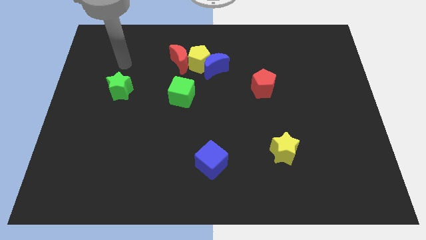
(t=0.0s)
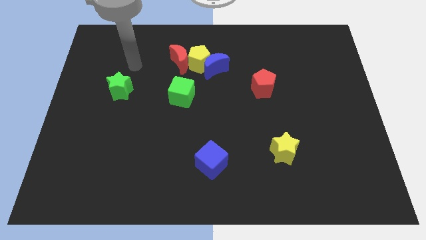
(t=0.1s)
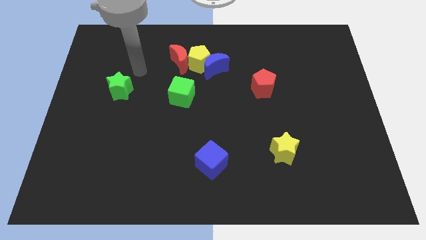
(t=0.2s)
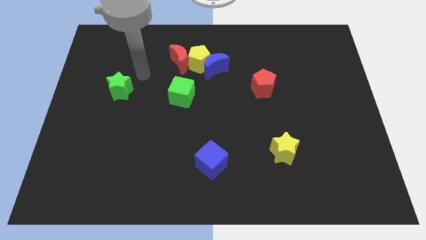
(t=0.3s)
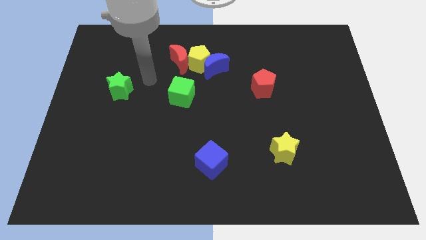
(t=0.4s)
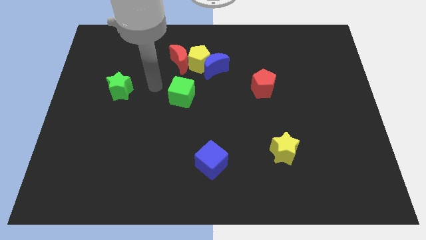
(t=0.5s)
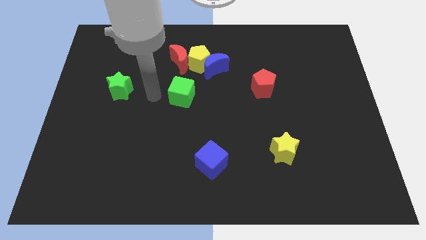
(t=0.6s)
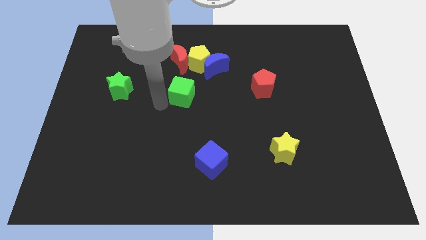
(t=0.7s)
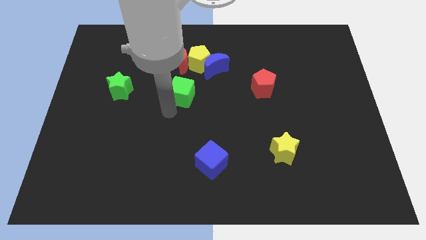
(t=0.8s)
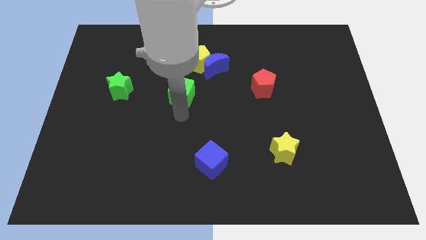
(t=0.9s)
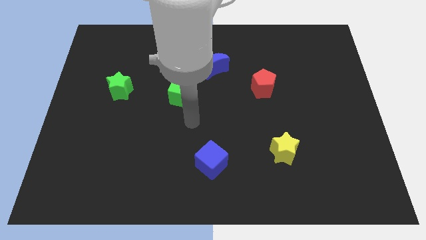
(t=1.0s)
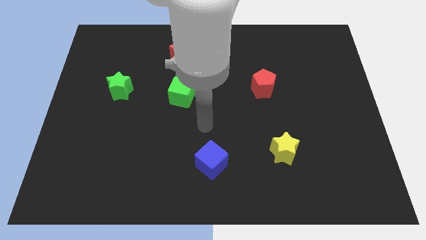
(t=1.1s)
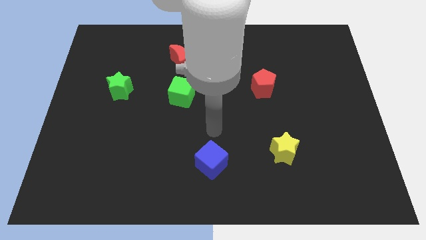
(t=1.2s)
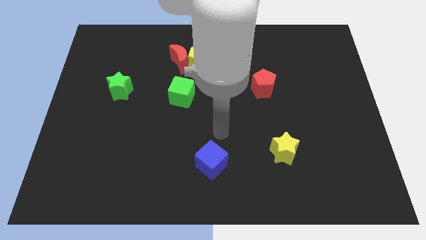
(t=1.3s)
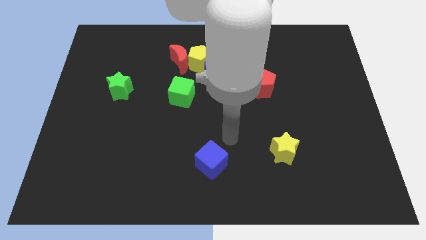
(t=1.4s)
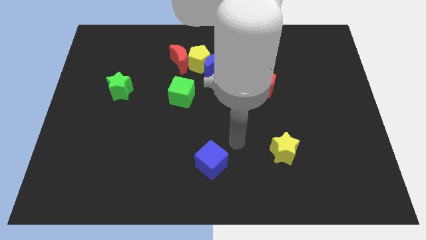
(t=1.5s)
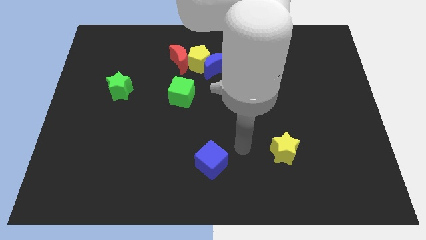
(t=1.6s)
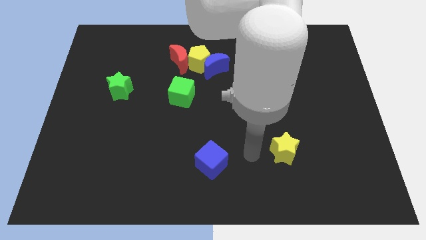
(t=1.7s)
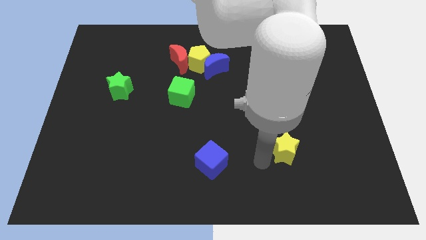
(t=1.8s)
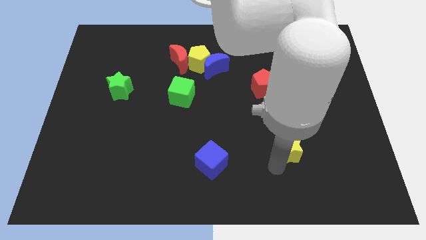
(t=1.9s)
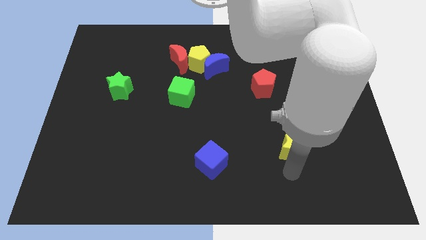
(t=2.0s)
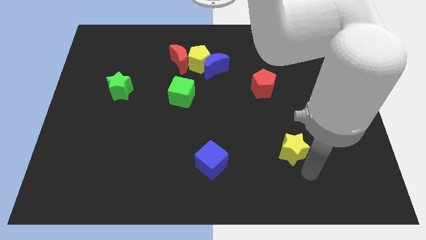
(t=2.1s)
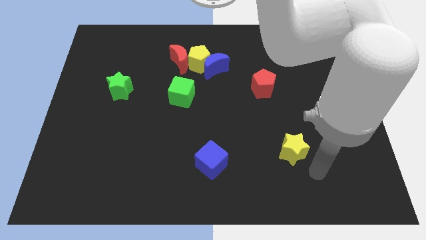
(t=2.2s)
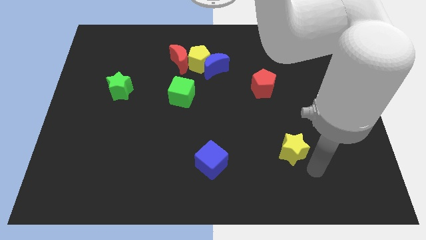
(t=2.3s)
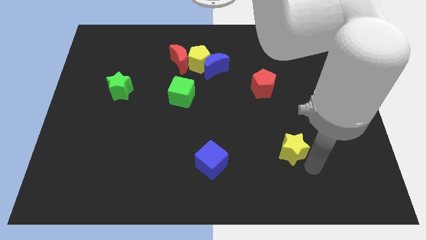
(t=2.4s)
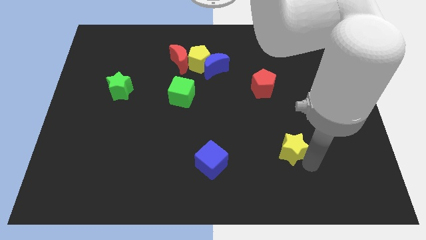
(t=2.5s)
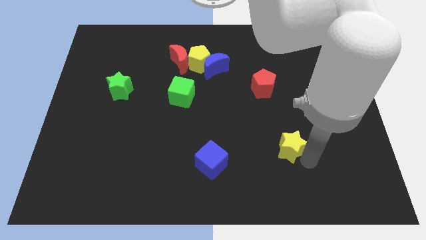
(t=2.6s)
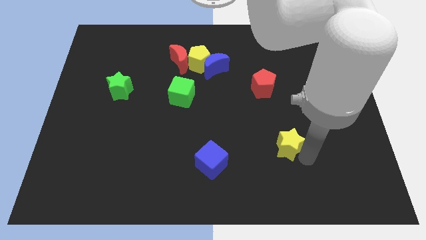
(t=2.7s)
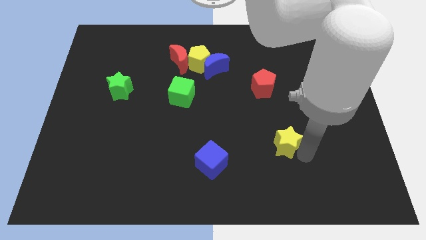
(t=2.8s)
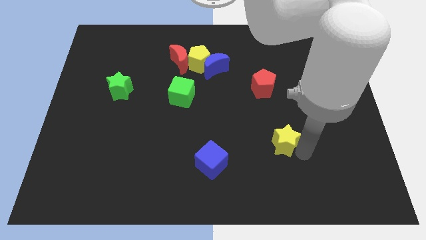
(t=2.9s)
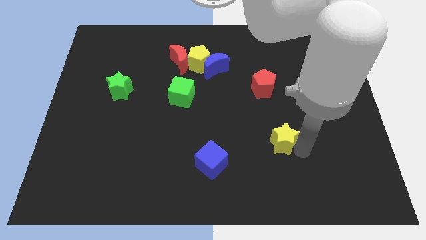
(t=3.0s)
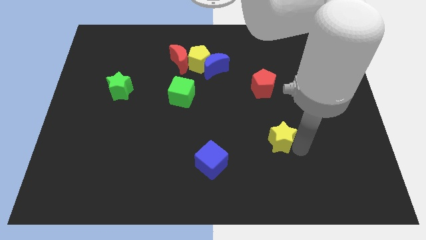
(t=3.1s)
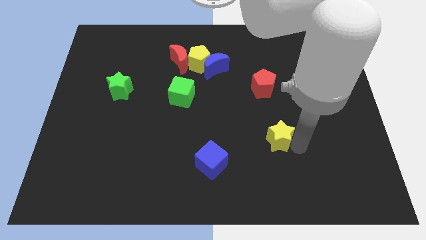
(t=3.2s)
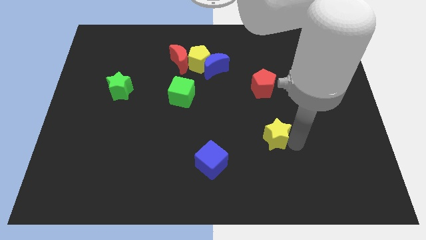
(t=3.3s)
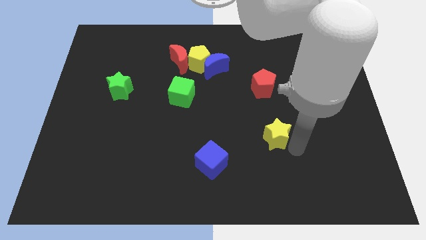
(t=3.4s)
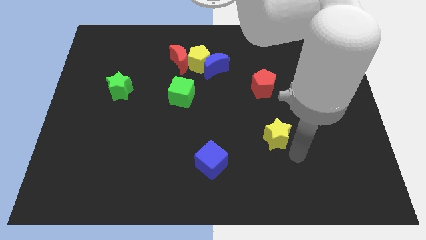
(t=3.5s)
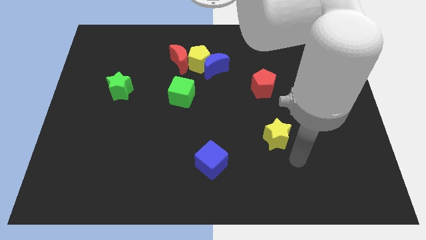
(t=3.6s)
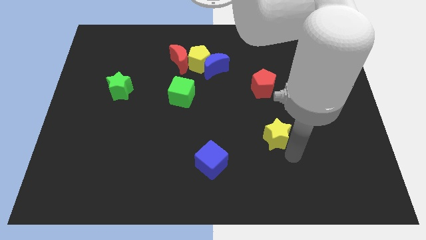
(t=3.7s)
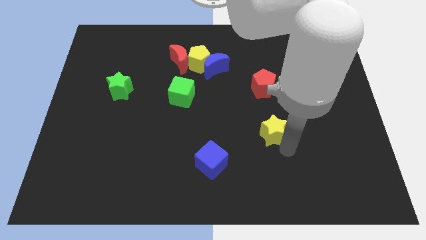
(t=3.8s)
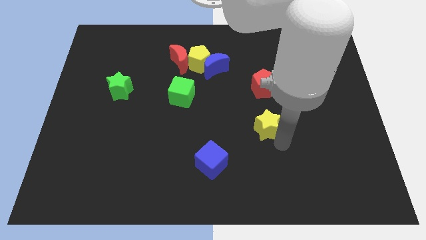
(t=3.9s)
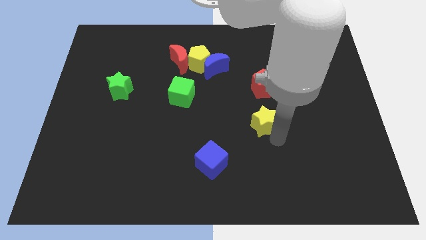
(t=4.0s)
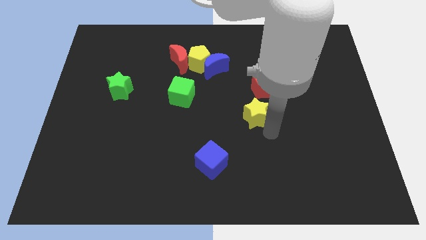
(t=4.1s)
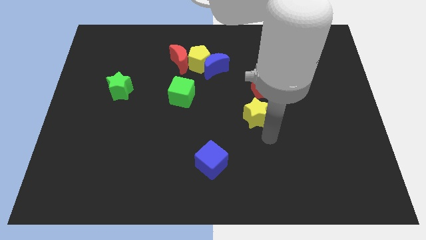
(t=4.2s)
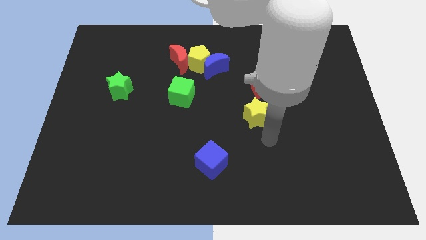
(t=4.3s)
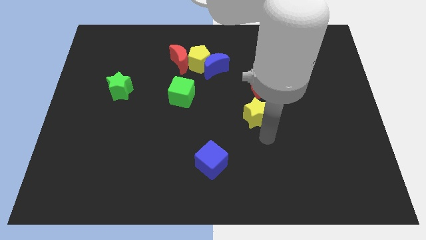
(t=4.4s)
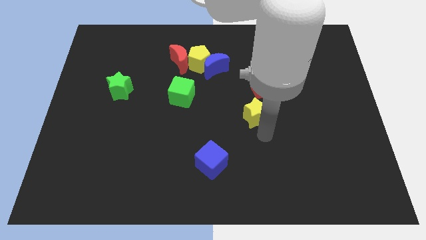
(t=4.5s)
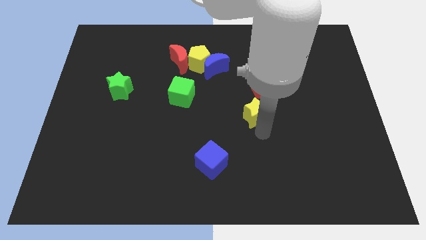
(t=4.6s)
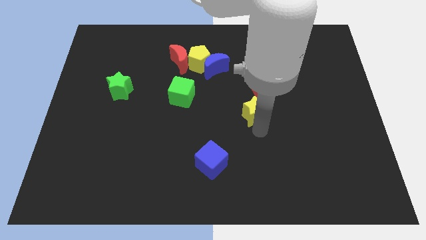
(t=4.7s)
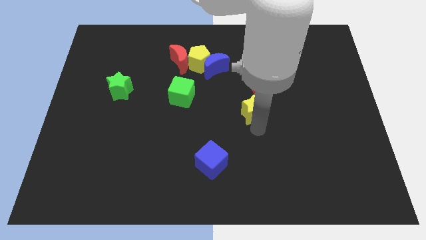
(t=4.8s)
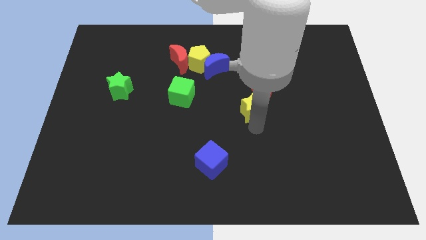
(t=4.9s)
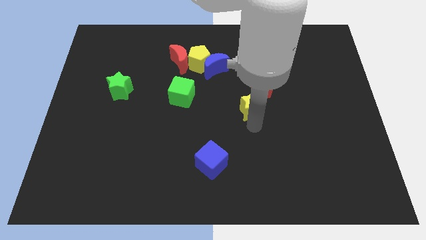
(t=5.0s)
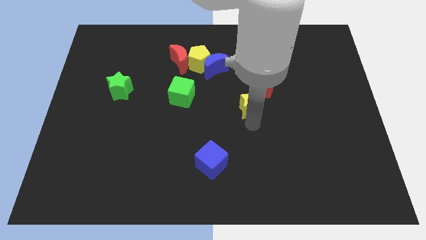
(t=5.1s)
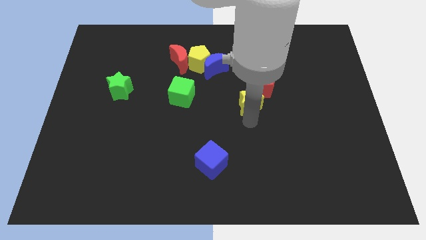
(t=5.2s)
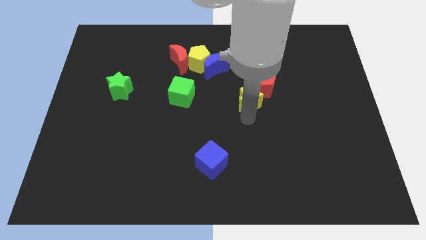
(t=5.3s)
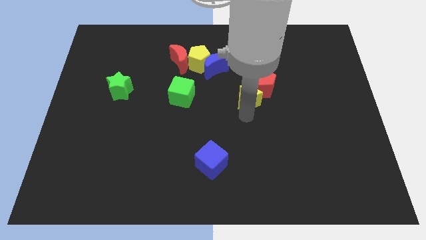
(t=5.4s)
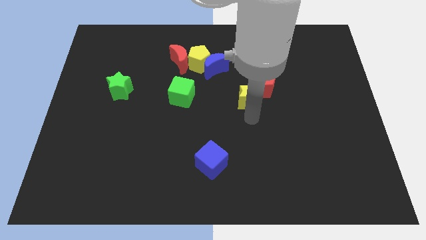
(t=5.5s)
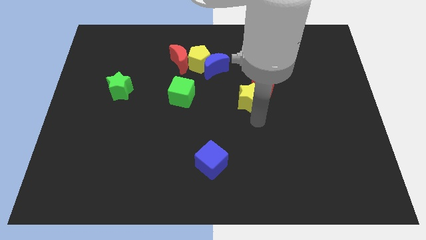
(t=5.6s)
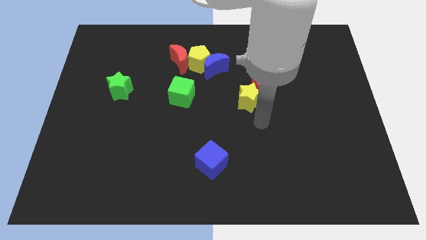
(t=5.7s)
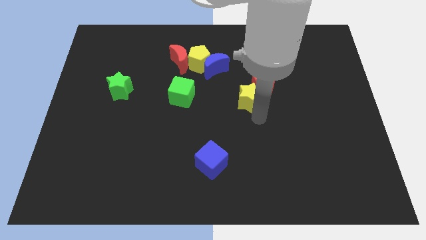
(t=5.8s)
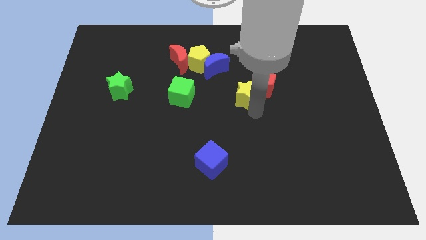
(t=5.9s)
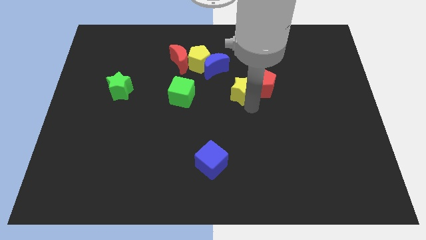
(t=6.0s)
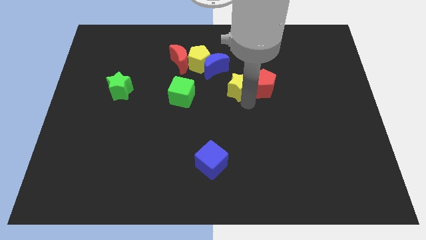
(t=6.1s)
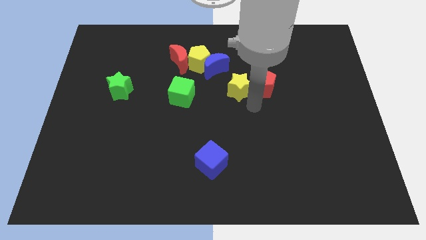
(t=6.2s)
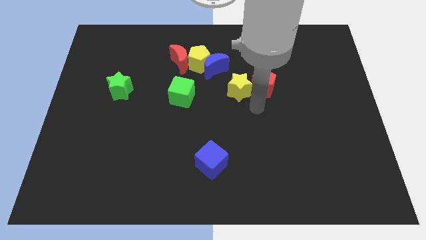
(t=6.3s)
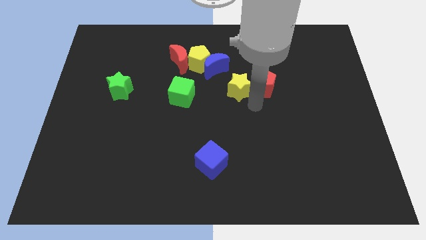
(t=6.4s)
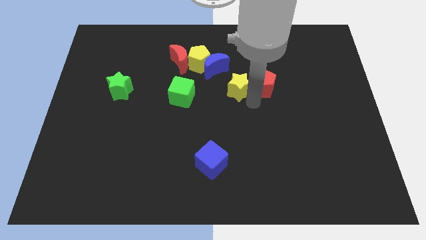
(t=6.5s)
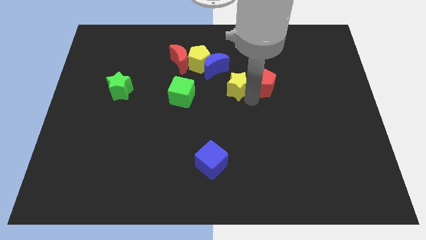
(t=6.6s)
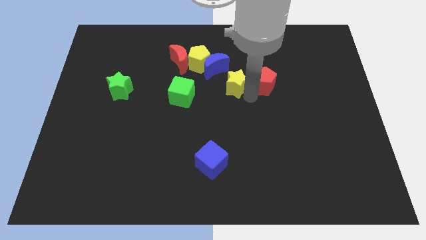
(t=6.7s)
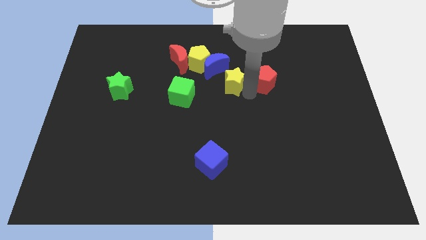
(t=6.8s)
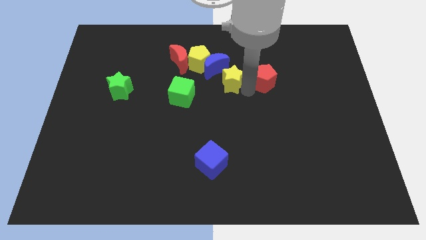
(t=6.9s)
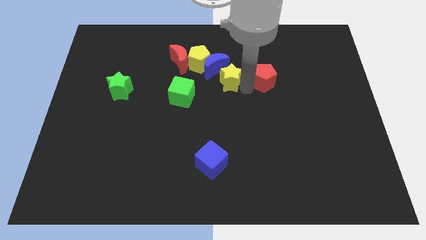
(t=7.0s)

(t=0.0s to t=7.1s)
slide the yellow star towards the blue moon
